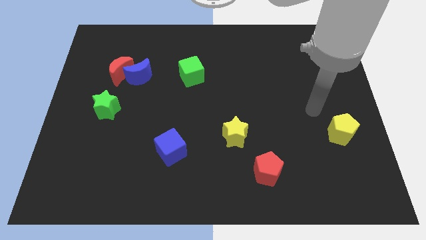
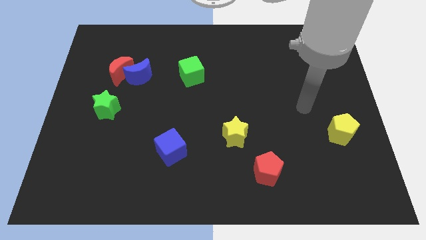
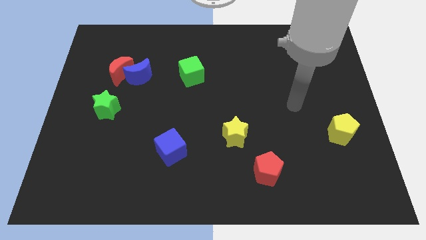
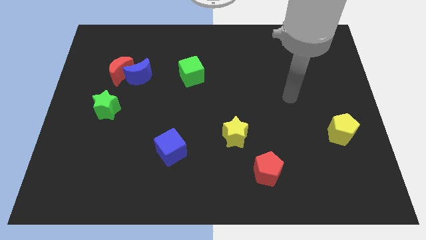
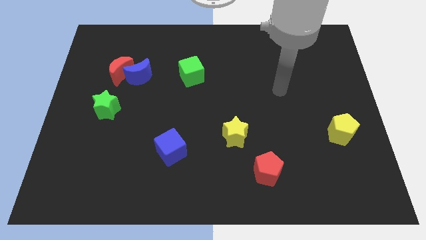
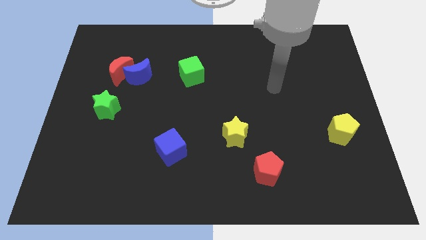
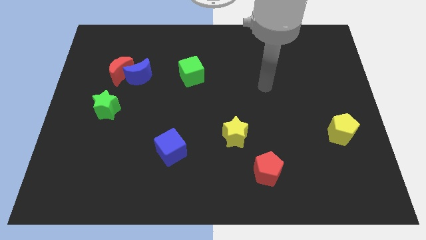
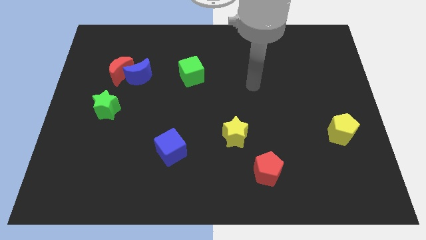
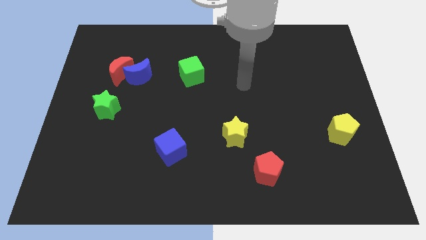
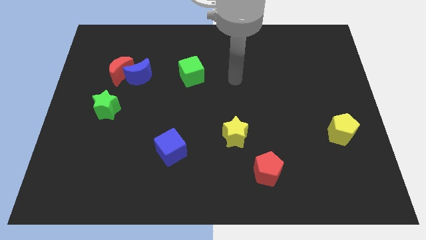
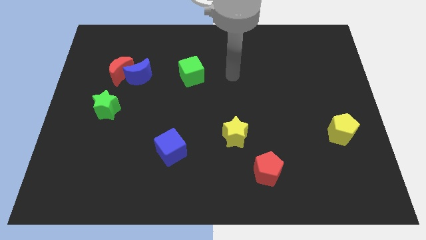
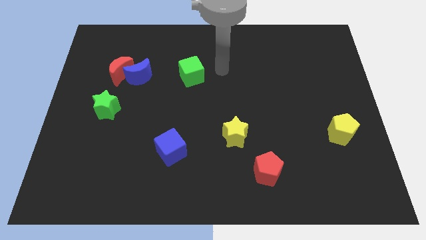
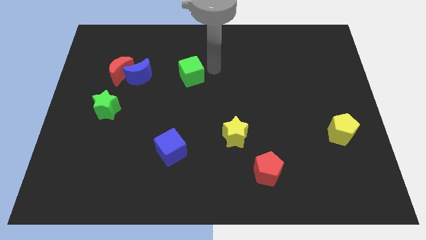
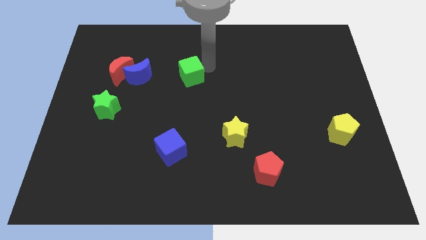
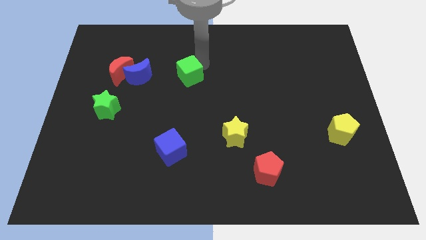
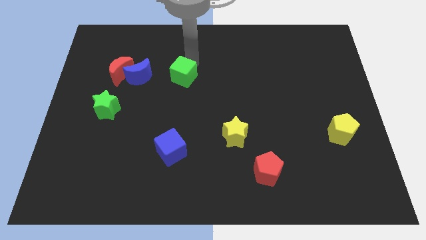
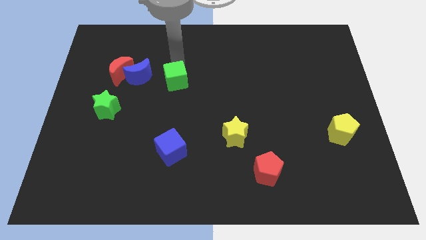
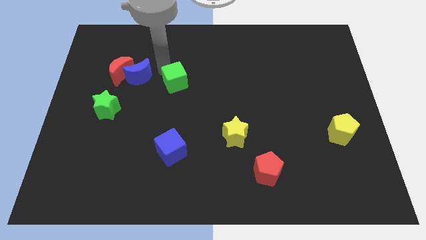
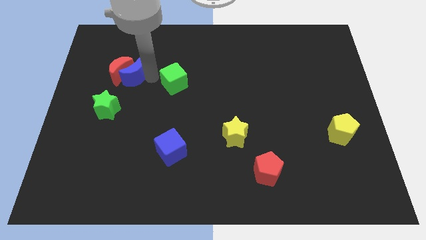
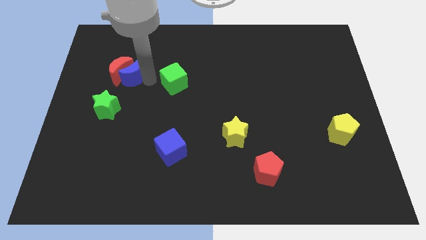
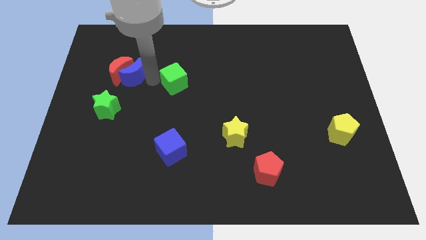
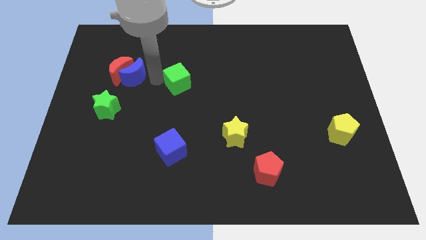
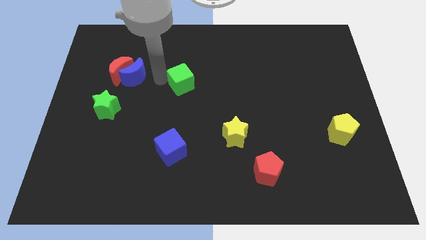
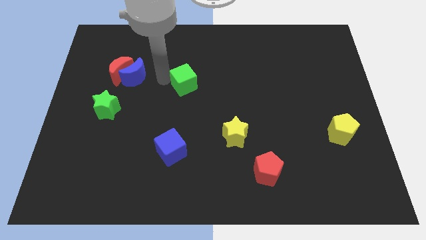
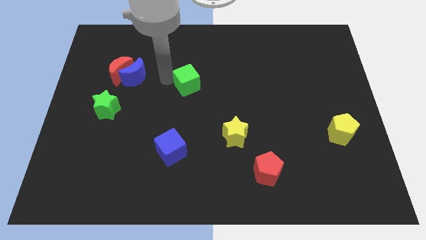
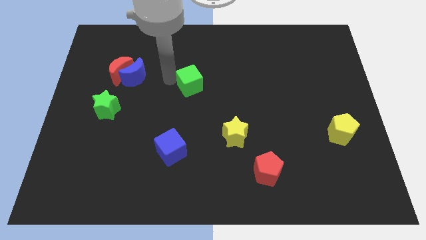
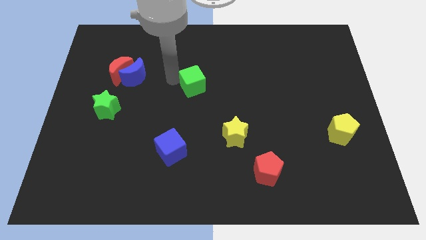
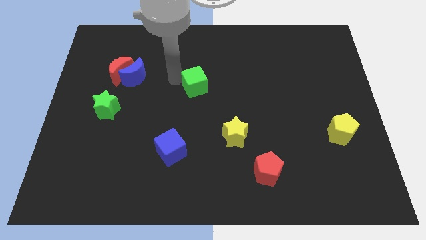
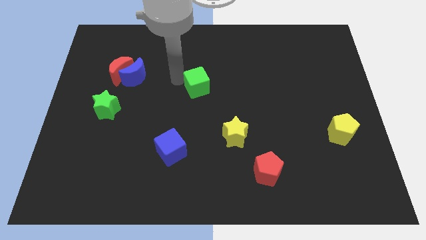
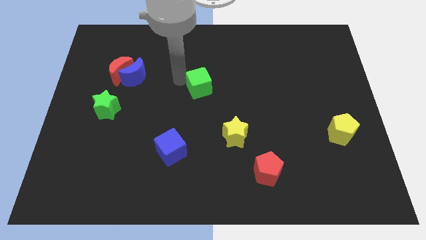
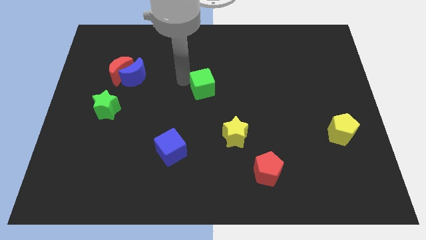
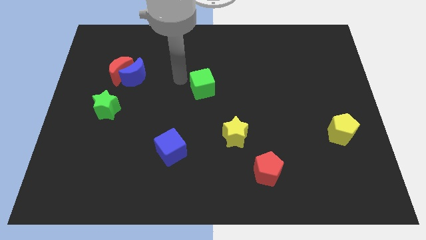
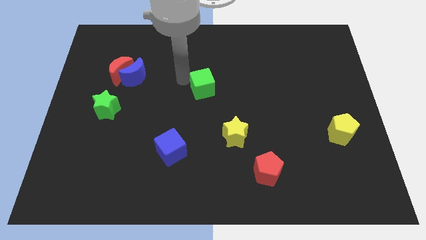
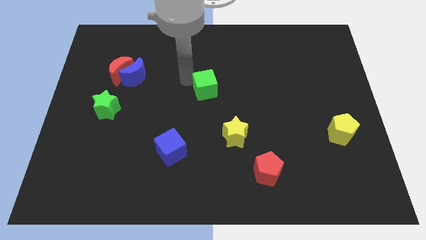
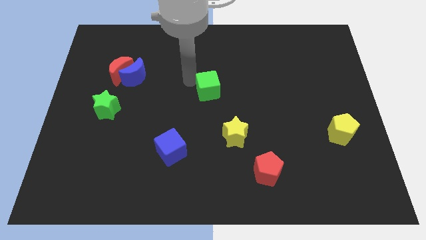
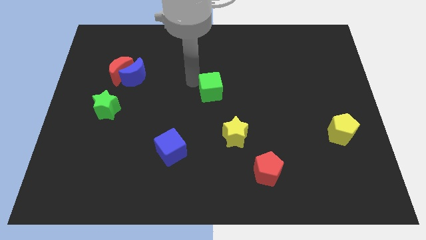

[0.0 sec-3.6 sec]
move the green cube down and to the right diagonally a little bit

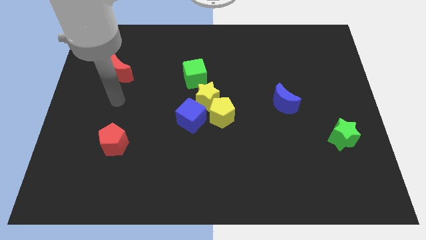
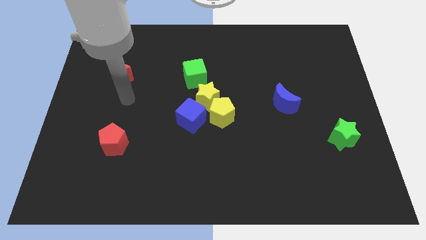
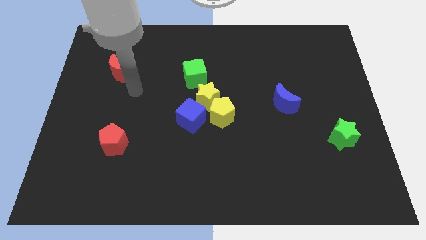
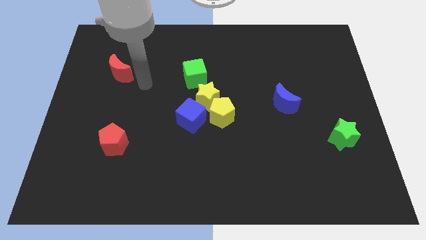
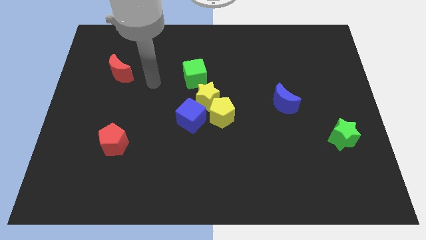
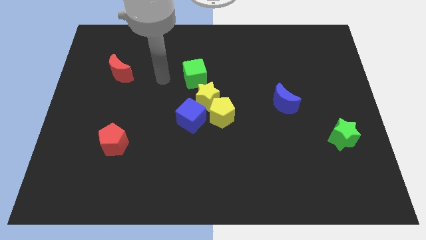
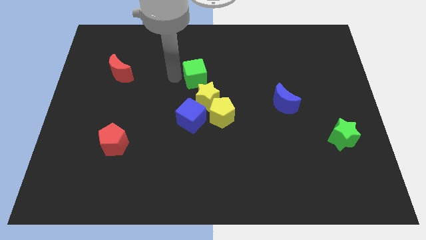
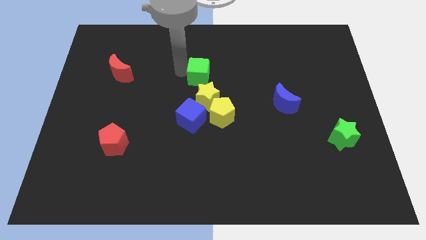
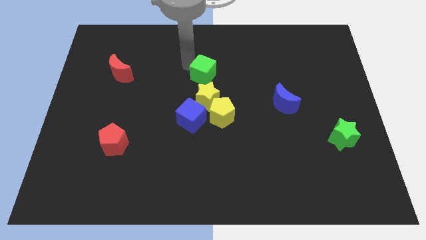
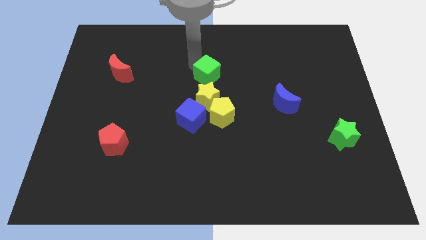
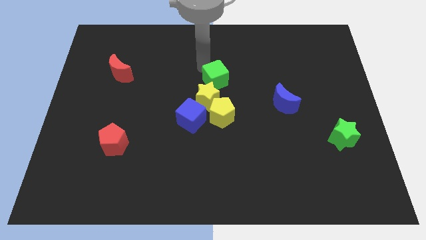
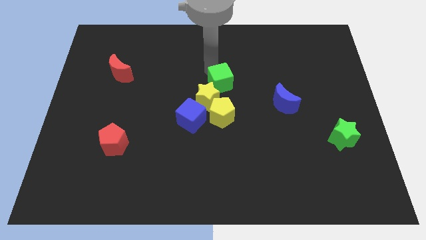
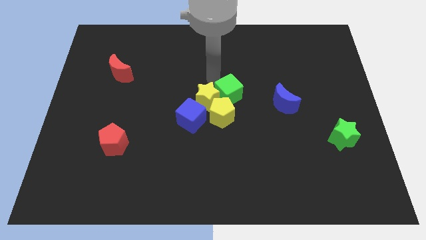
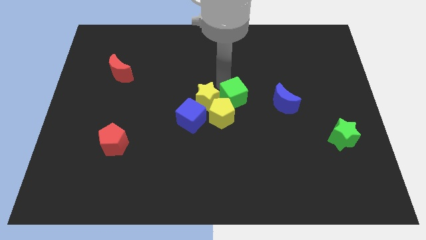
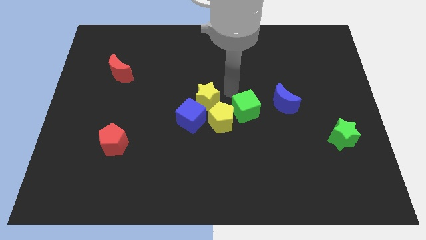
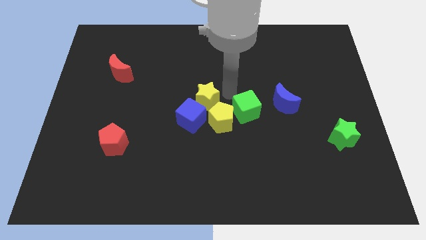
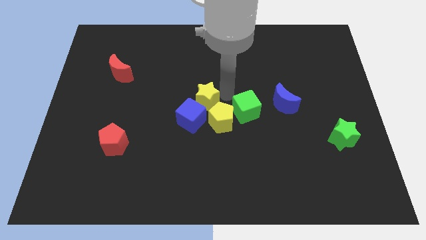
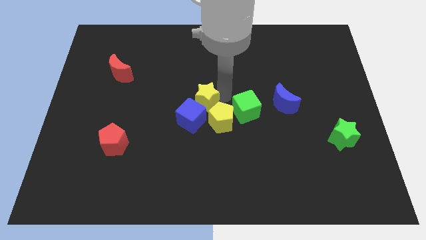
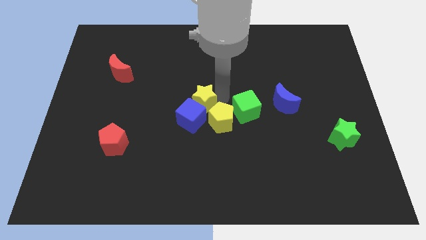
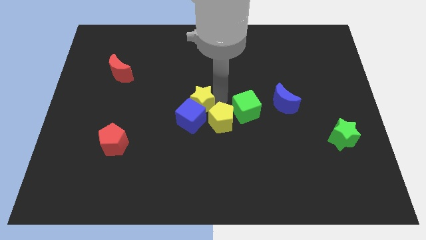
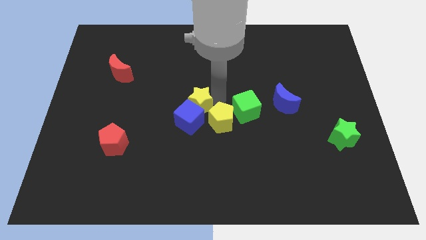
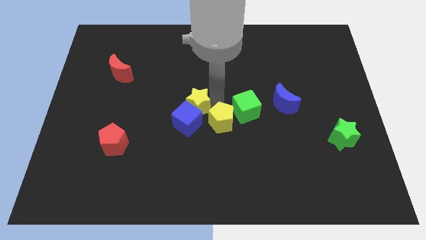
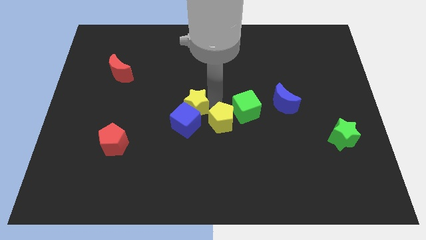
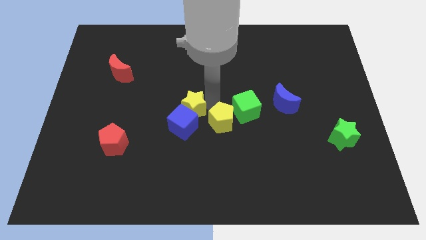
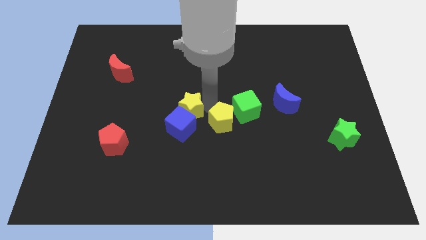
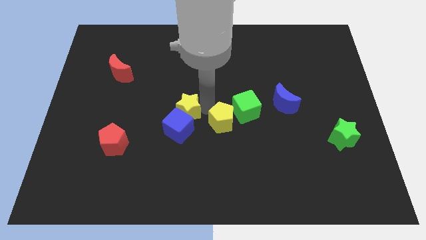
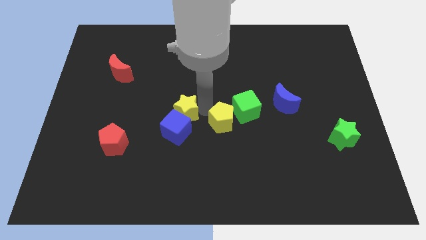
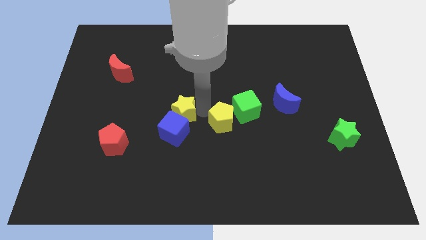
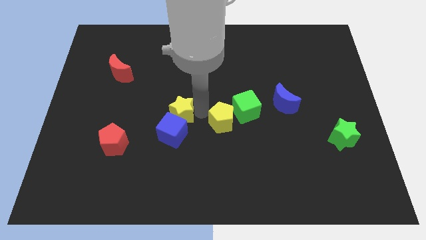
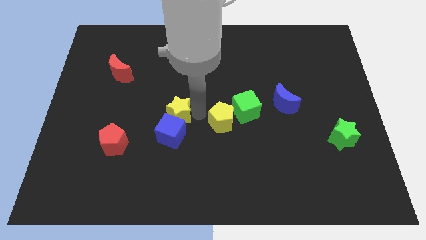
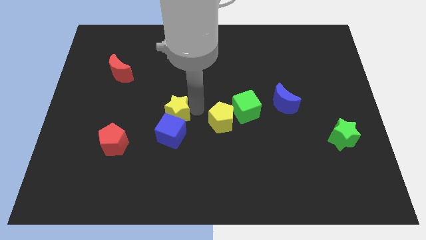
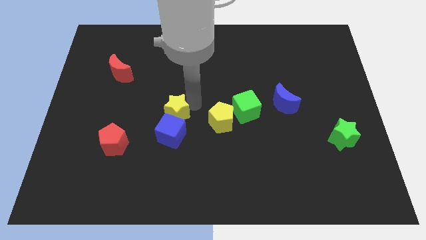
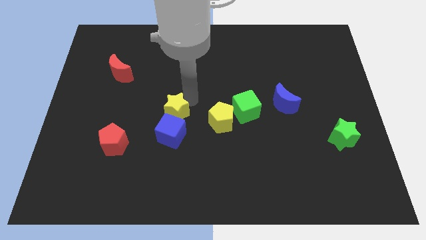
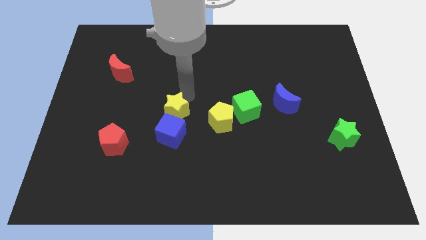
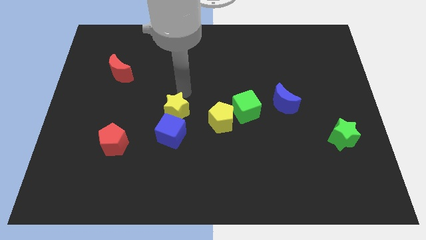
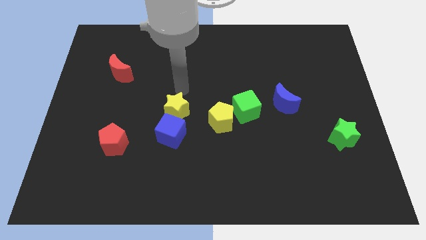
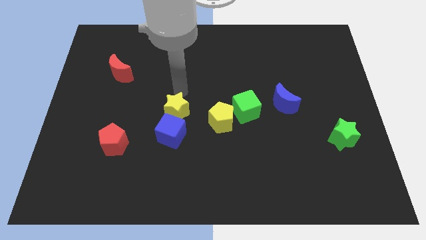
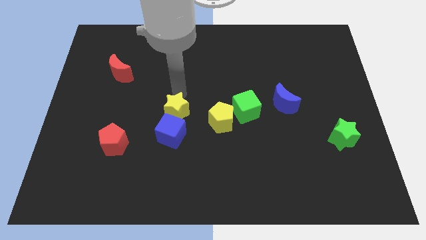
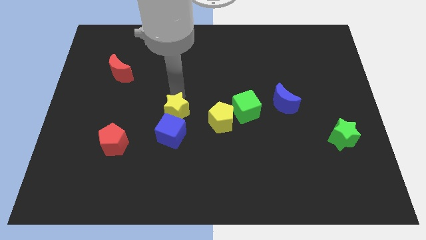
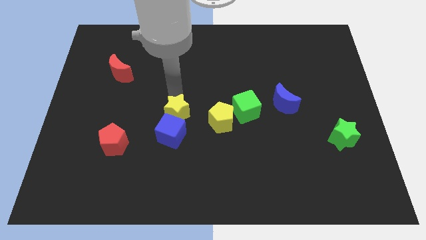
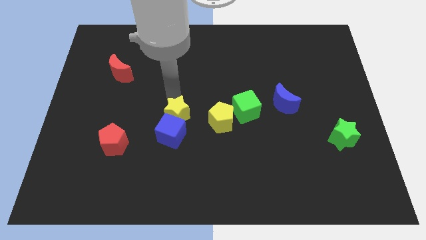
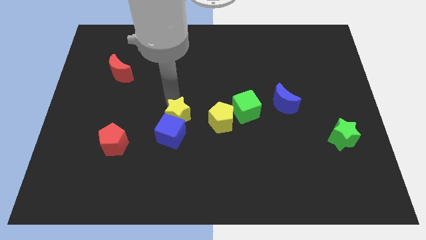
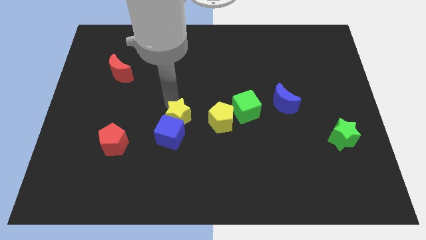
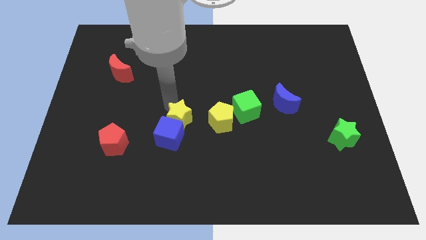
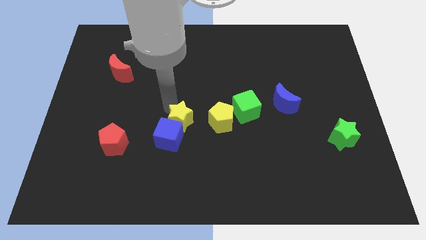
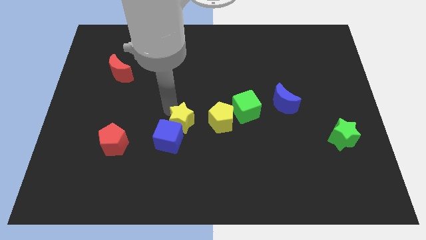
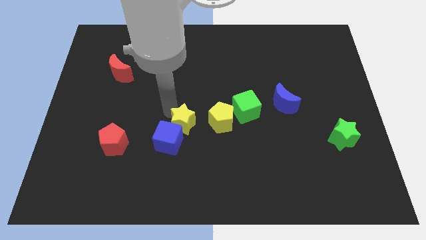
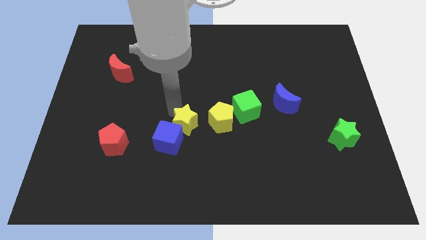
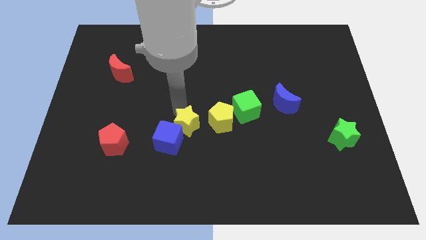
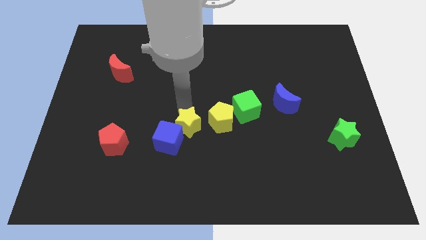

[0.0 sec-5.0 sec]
move the yellow star down slightly
